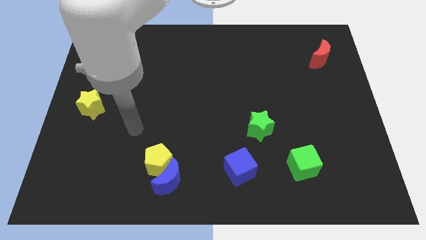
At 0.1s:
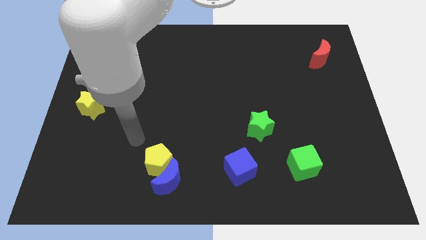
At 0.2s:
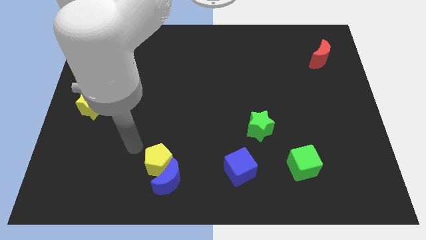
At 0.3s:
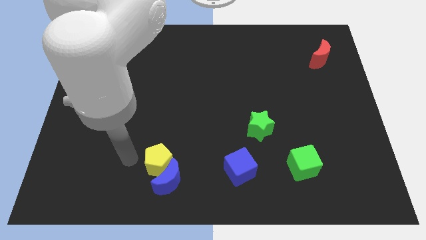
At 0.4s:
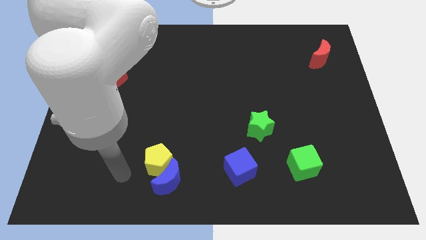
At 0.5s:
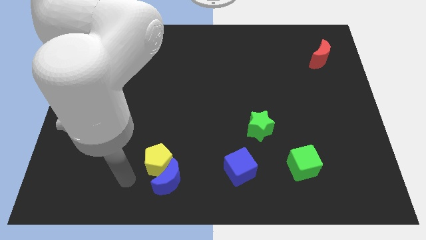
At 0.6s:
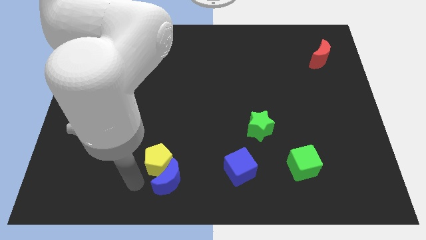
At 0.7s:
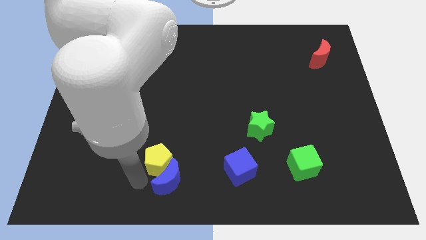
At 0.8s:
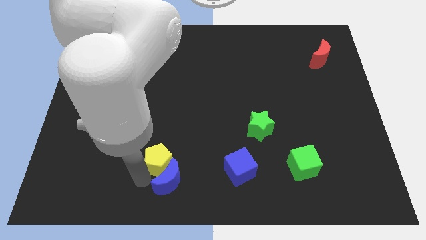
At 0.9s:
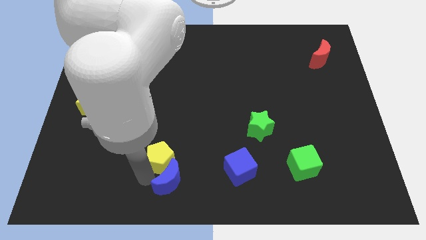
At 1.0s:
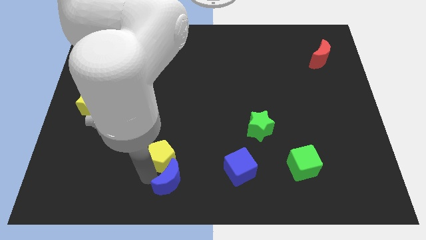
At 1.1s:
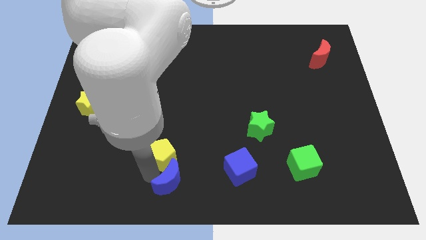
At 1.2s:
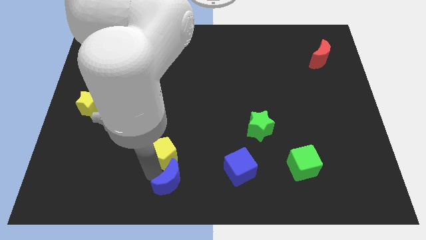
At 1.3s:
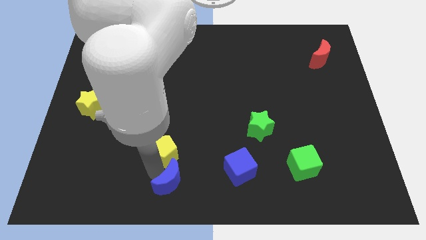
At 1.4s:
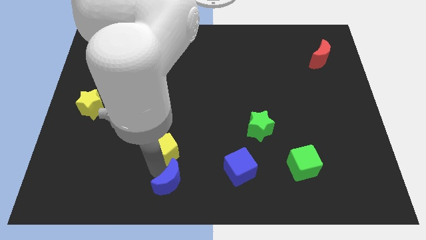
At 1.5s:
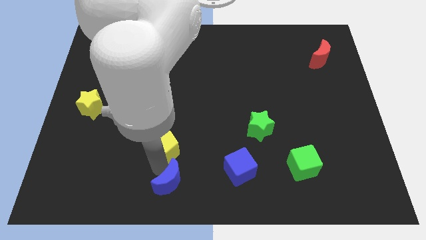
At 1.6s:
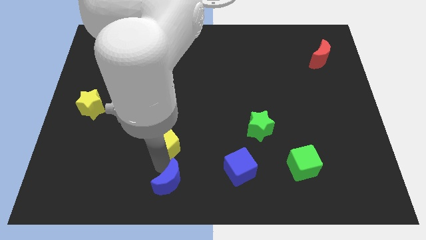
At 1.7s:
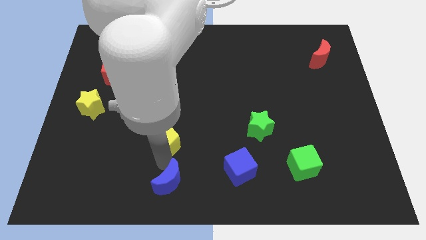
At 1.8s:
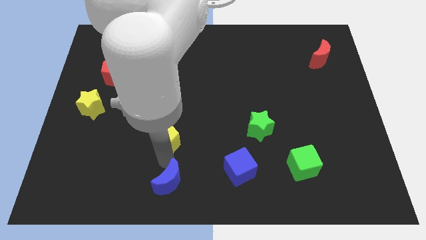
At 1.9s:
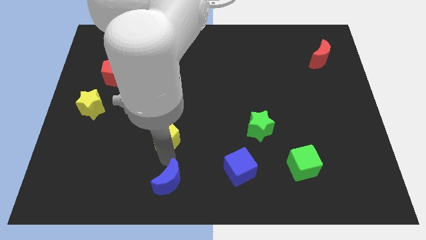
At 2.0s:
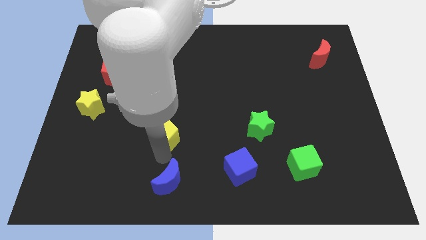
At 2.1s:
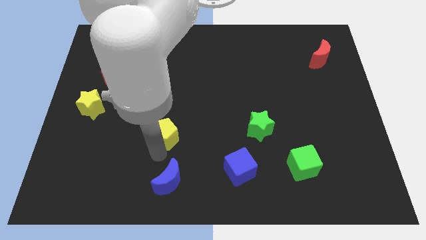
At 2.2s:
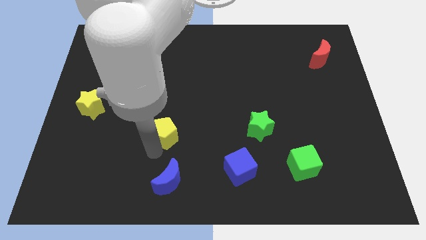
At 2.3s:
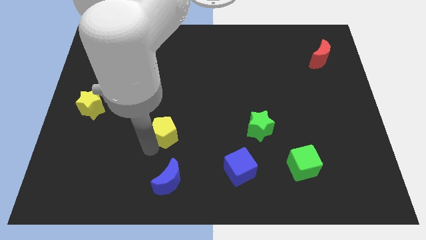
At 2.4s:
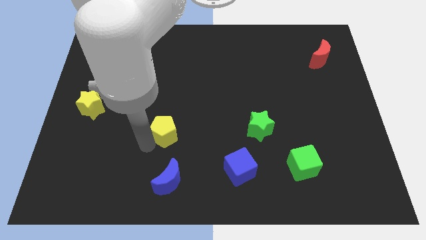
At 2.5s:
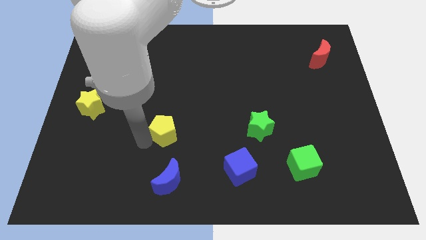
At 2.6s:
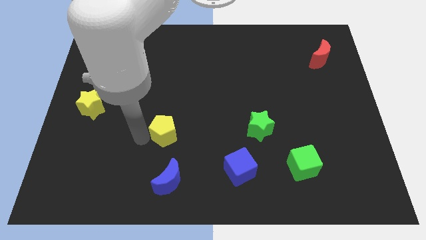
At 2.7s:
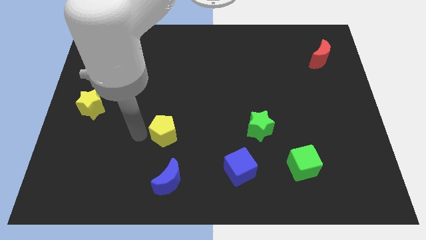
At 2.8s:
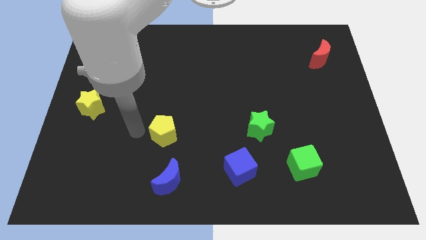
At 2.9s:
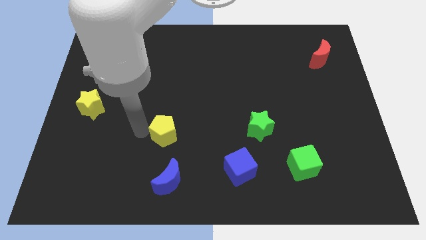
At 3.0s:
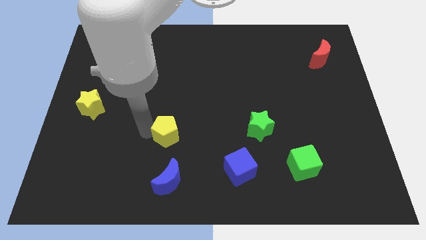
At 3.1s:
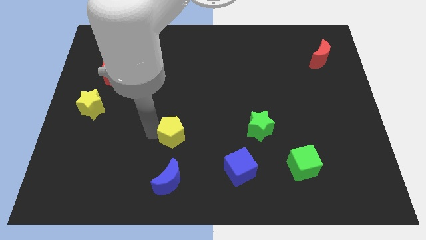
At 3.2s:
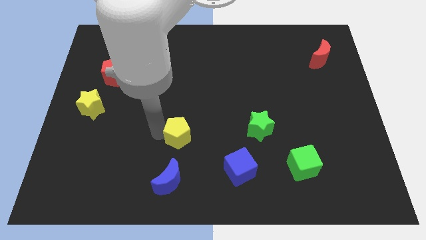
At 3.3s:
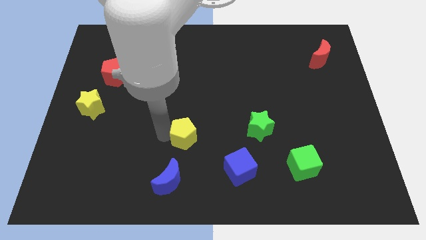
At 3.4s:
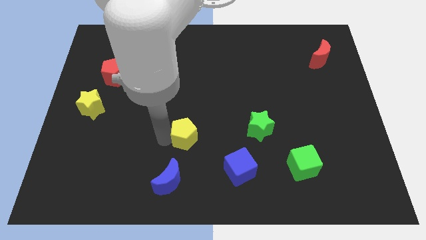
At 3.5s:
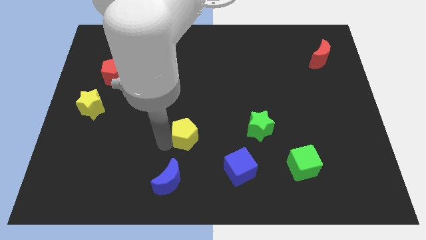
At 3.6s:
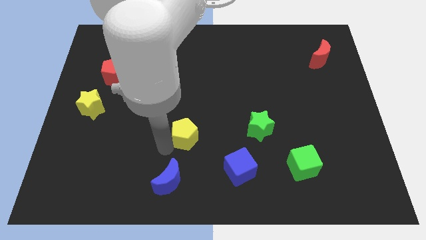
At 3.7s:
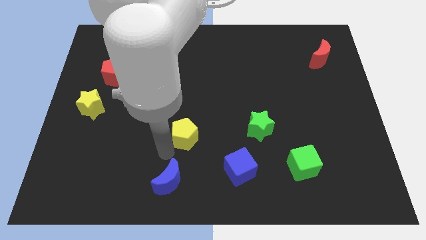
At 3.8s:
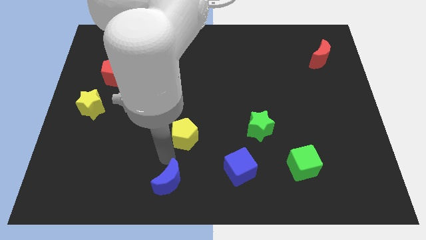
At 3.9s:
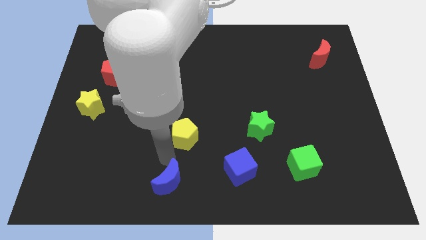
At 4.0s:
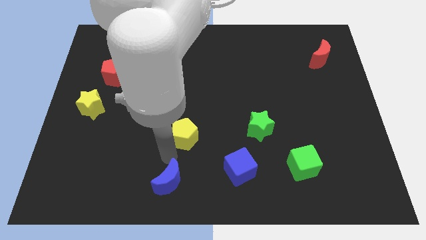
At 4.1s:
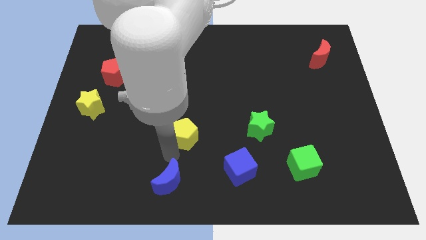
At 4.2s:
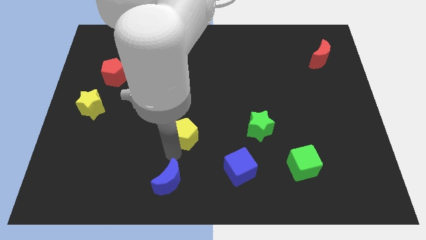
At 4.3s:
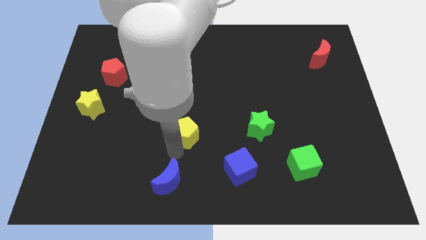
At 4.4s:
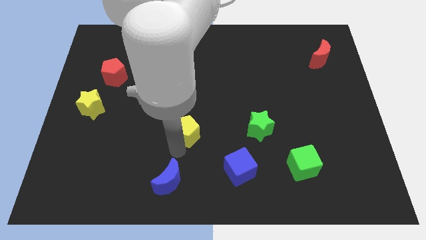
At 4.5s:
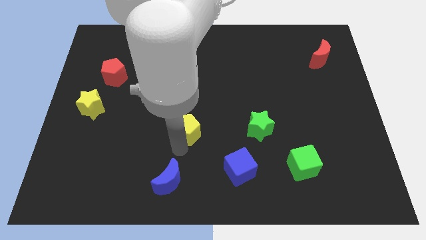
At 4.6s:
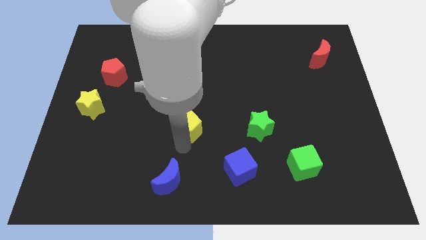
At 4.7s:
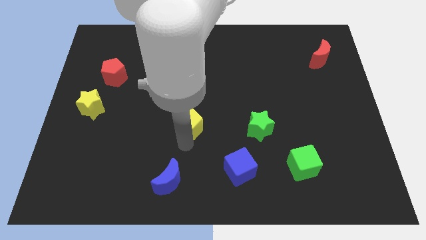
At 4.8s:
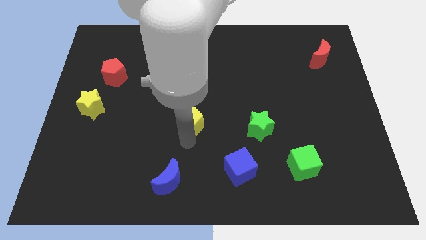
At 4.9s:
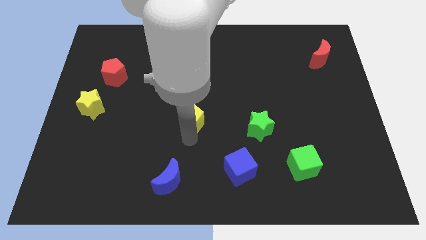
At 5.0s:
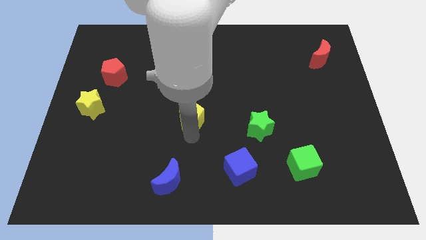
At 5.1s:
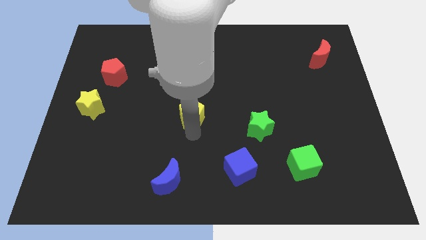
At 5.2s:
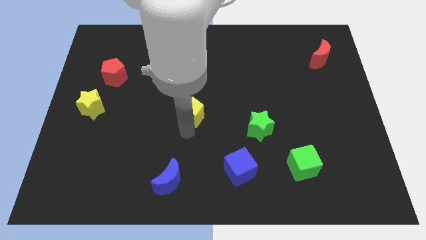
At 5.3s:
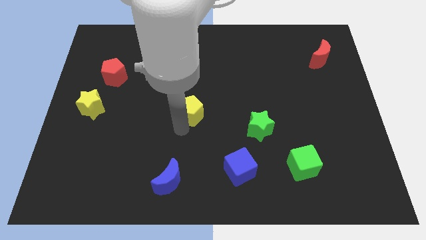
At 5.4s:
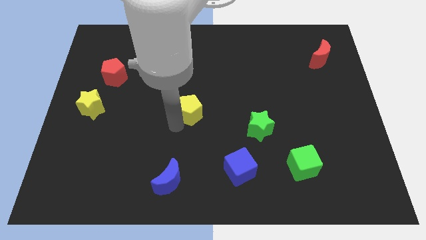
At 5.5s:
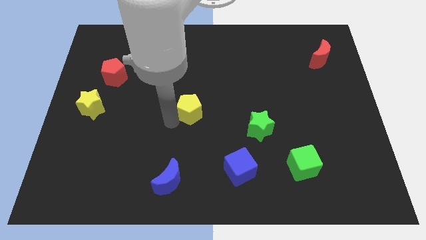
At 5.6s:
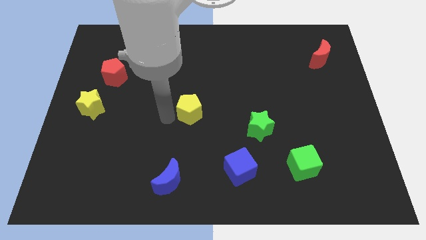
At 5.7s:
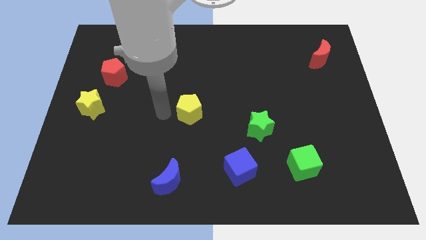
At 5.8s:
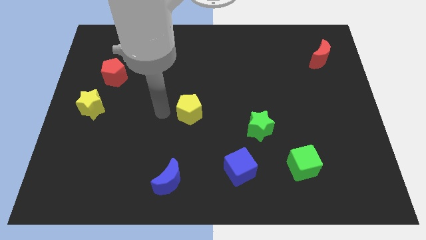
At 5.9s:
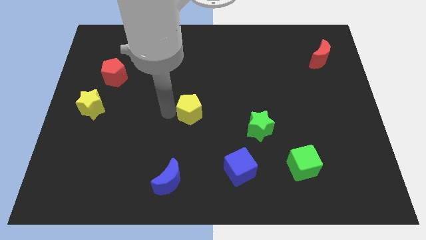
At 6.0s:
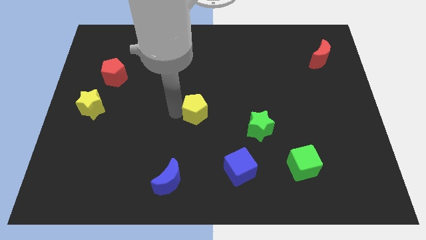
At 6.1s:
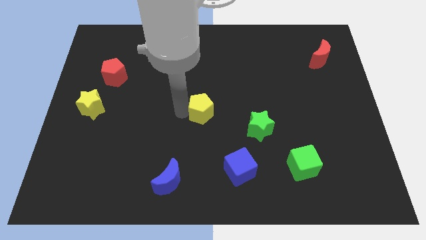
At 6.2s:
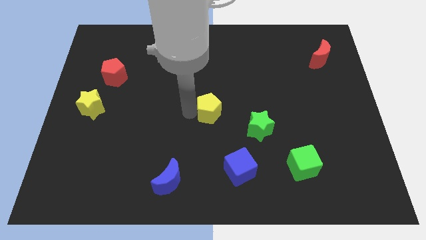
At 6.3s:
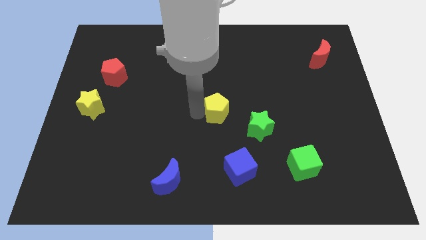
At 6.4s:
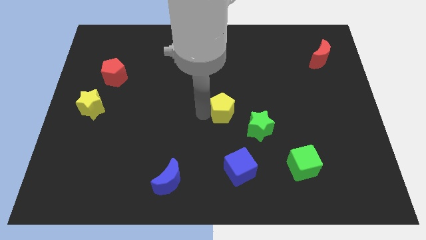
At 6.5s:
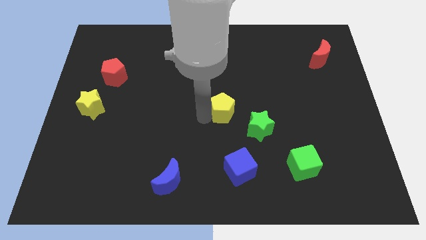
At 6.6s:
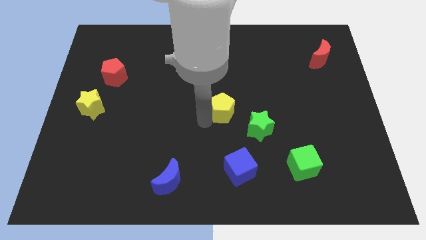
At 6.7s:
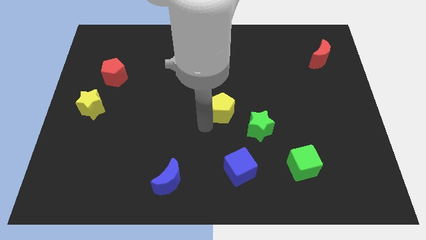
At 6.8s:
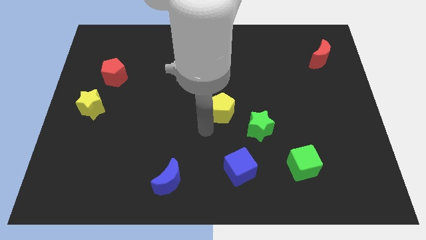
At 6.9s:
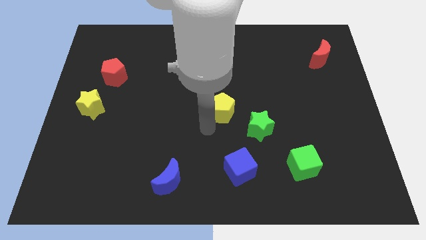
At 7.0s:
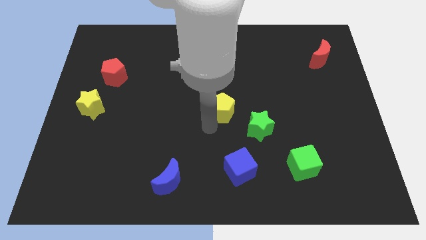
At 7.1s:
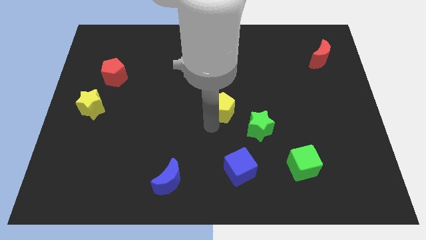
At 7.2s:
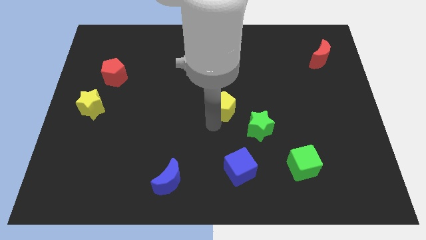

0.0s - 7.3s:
move the yellow pentagon upwards and to the right diagonally

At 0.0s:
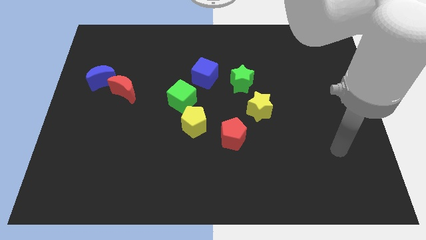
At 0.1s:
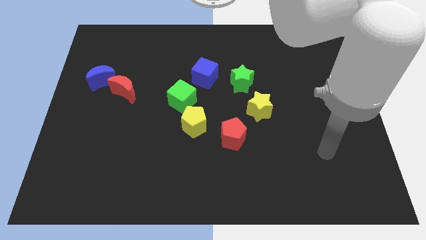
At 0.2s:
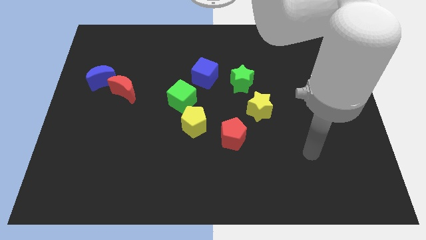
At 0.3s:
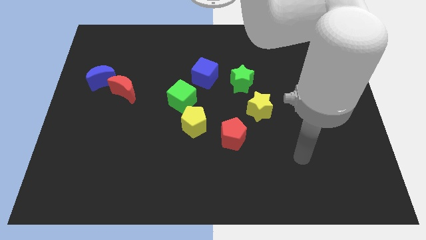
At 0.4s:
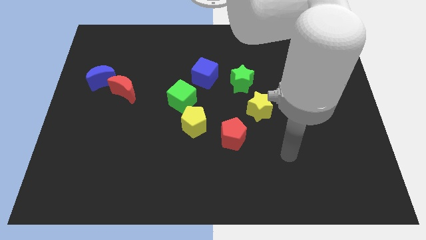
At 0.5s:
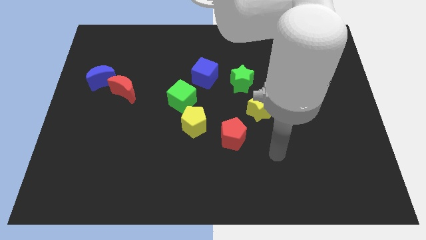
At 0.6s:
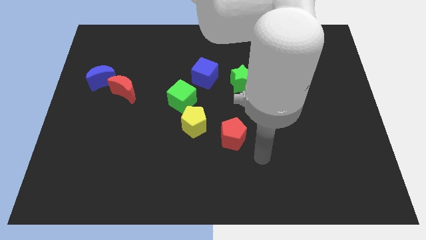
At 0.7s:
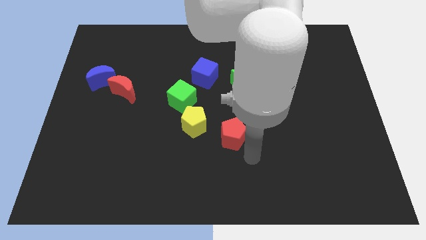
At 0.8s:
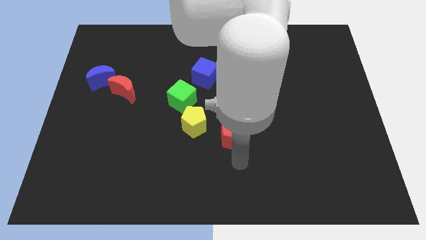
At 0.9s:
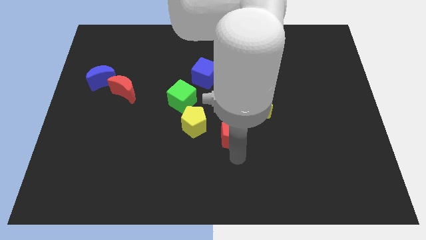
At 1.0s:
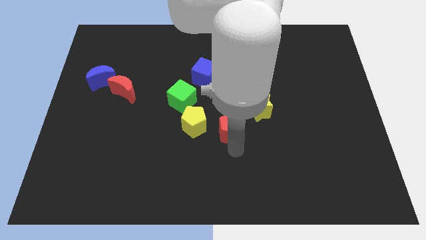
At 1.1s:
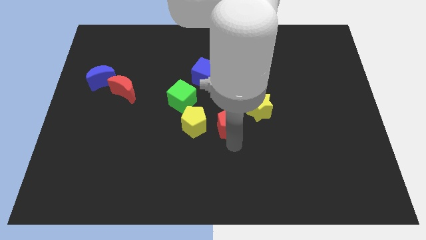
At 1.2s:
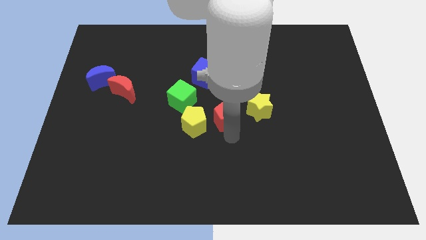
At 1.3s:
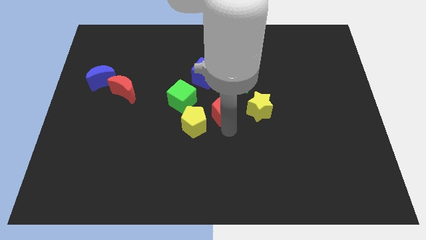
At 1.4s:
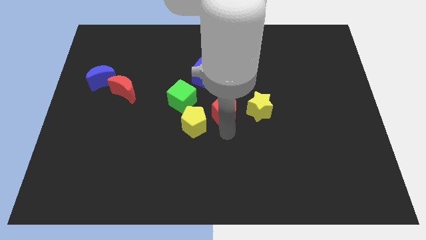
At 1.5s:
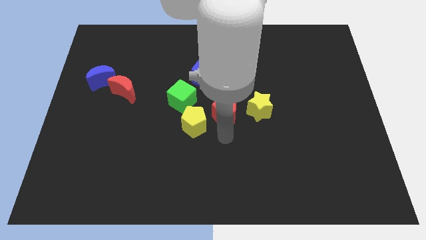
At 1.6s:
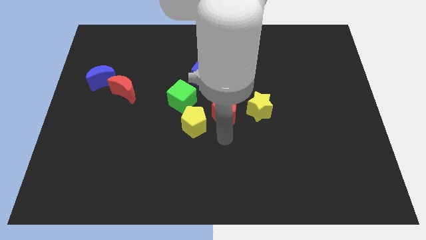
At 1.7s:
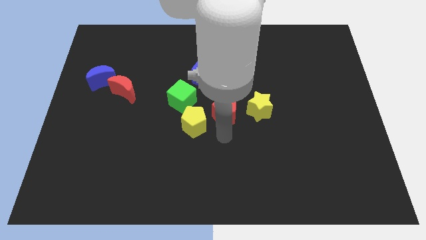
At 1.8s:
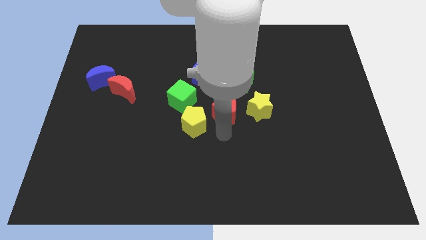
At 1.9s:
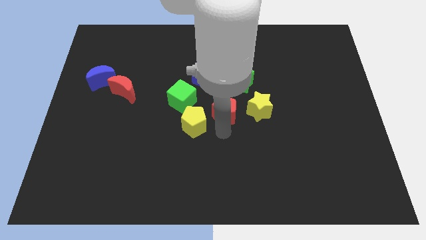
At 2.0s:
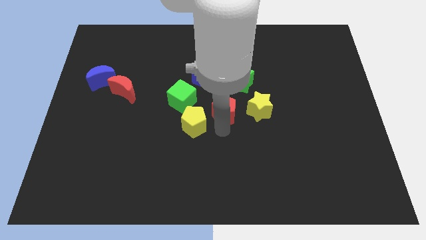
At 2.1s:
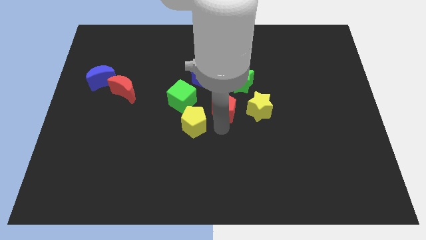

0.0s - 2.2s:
slide the red pentagon up somewhat
